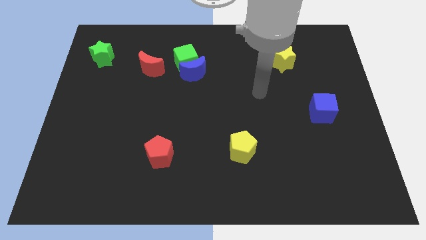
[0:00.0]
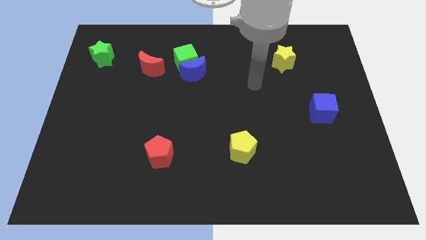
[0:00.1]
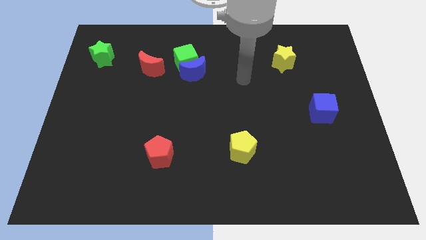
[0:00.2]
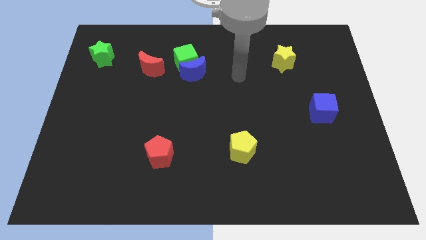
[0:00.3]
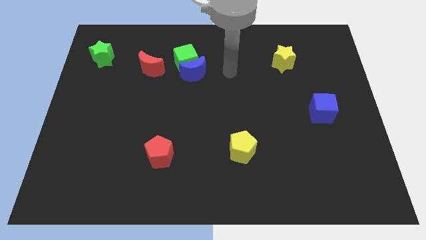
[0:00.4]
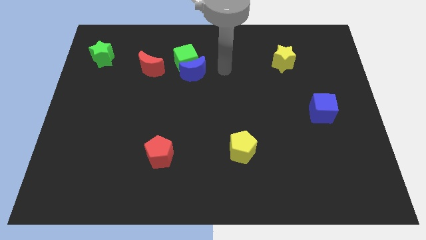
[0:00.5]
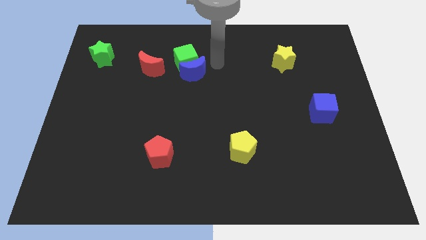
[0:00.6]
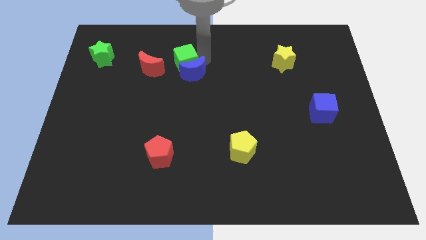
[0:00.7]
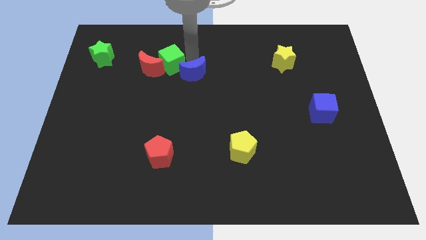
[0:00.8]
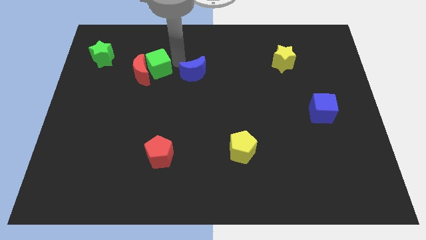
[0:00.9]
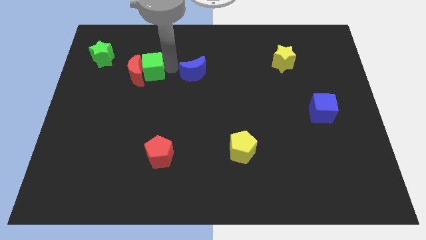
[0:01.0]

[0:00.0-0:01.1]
move the blue moon away from the green cube

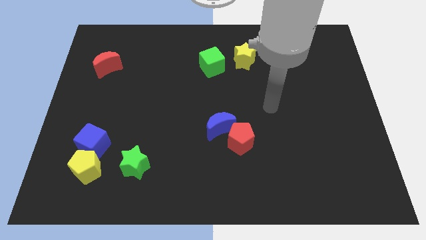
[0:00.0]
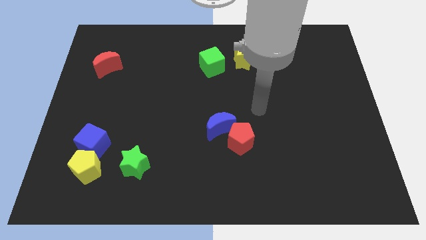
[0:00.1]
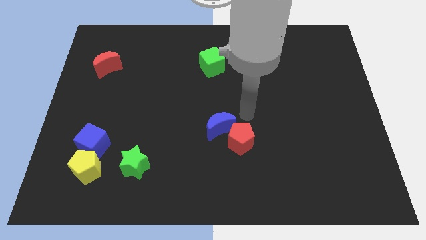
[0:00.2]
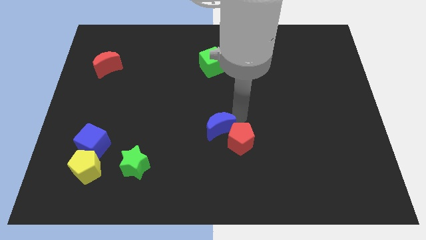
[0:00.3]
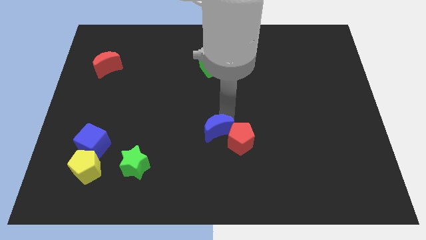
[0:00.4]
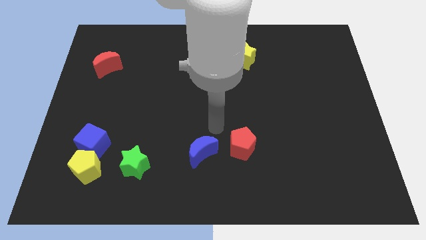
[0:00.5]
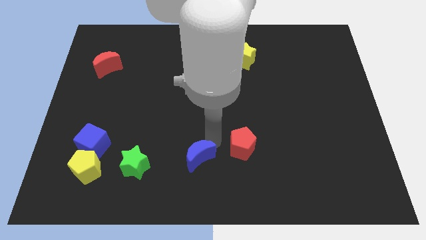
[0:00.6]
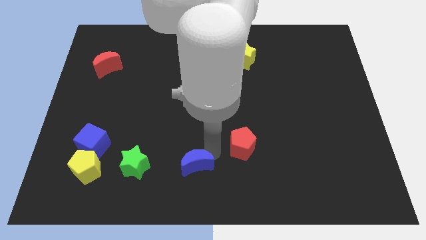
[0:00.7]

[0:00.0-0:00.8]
move the red pentagon away from the blue moon

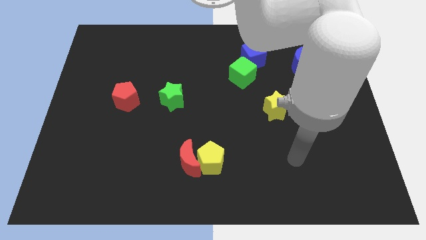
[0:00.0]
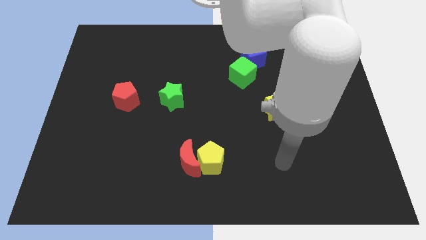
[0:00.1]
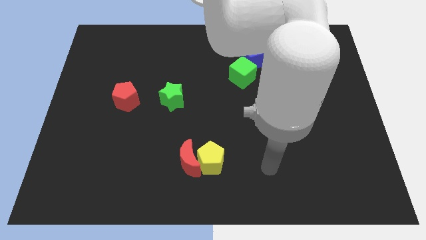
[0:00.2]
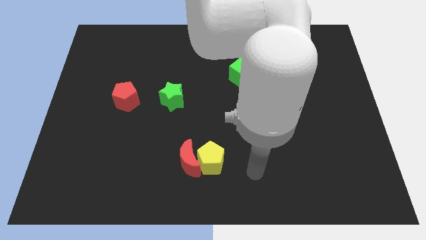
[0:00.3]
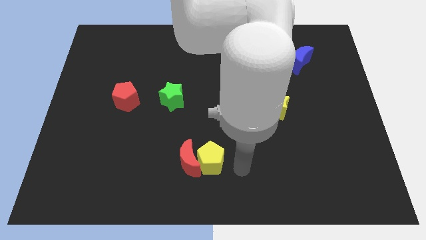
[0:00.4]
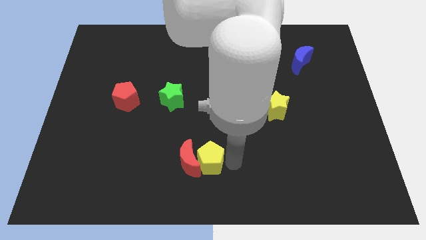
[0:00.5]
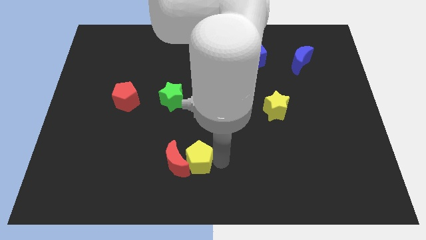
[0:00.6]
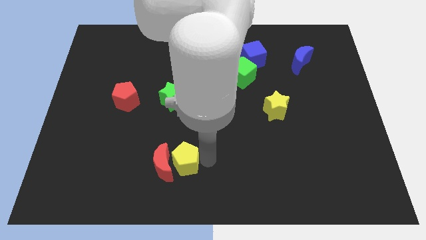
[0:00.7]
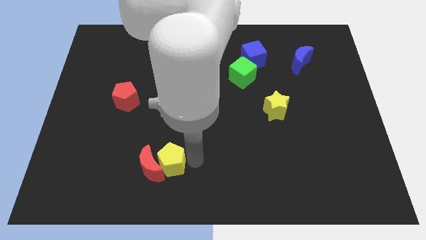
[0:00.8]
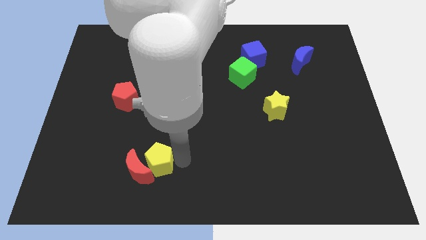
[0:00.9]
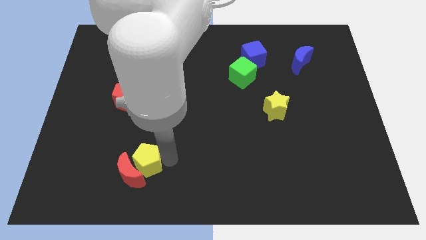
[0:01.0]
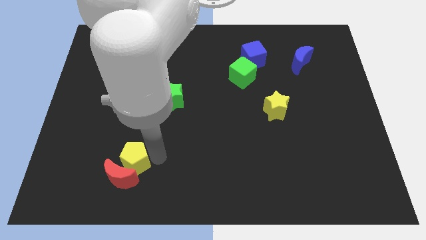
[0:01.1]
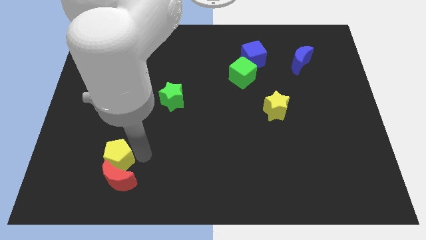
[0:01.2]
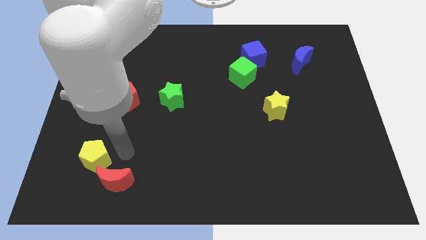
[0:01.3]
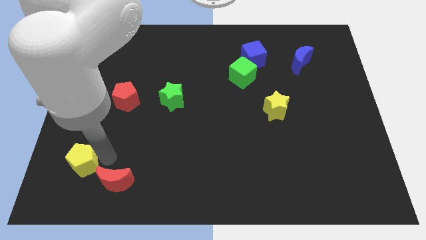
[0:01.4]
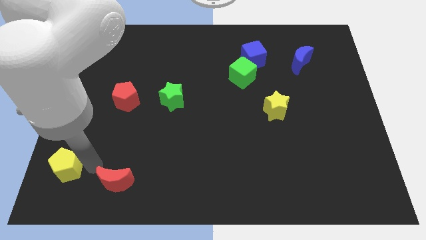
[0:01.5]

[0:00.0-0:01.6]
separate the red moon from the yellow pentagon

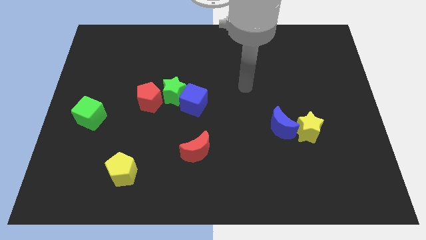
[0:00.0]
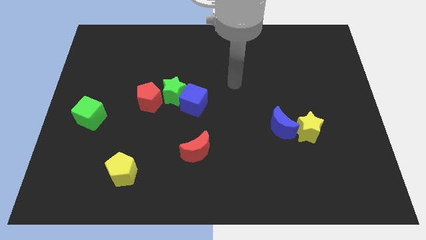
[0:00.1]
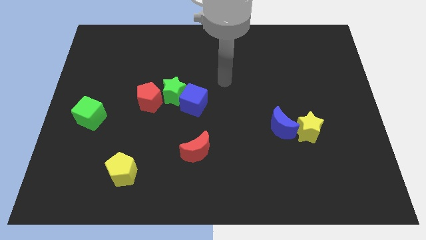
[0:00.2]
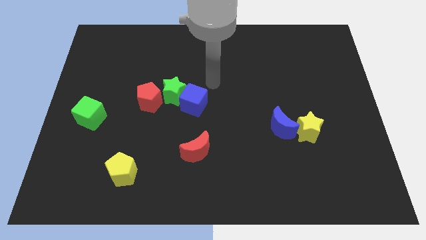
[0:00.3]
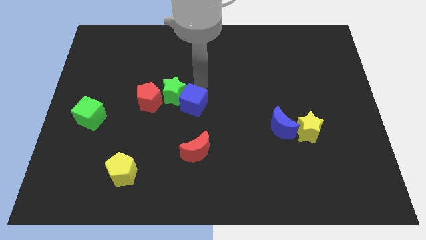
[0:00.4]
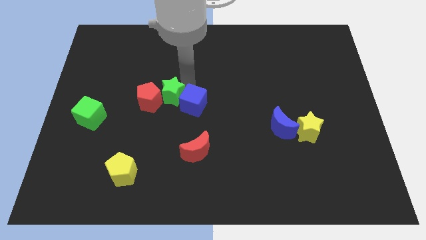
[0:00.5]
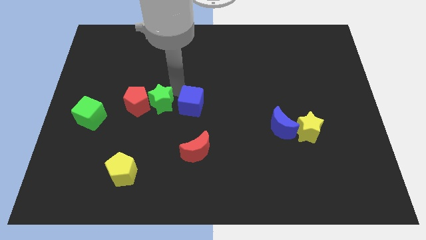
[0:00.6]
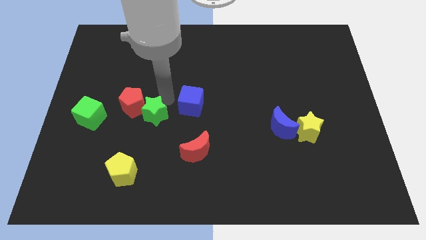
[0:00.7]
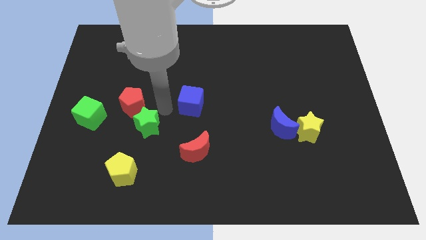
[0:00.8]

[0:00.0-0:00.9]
move the blue cube away from the green star

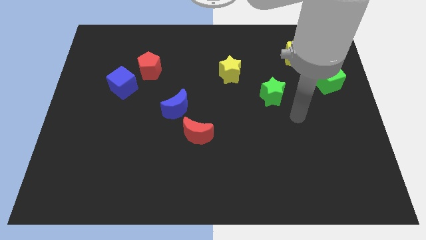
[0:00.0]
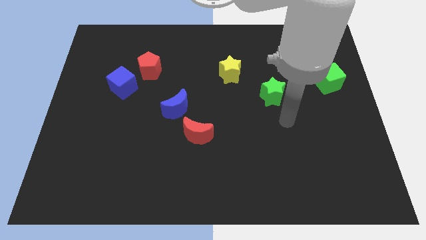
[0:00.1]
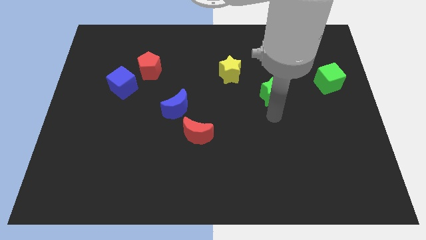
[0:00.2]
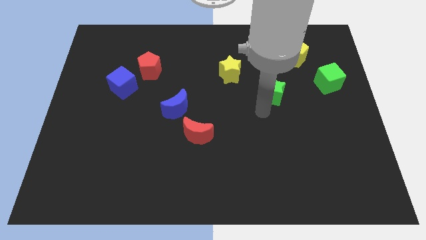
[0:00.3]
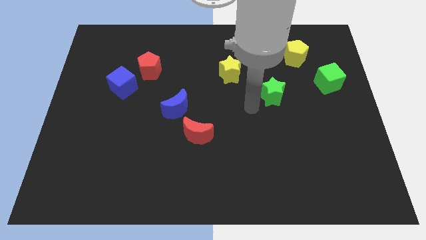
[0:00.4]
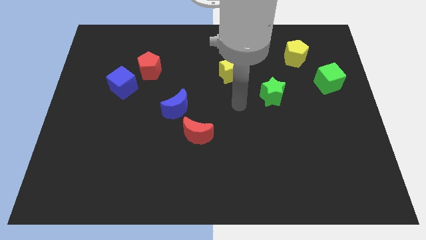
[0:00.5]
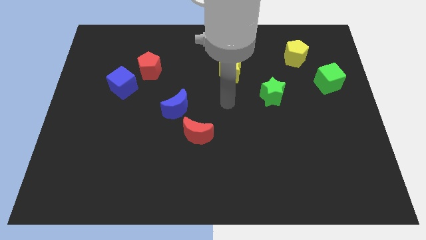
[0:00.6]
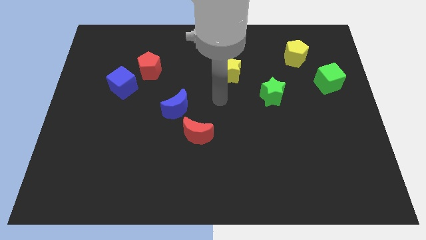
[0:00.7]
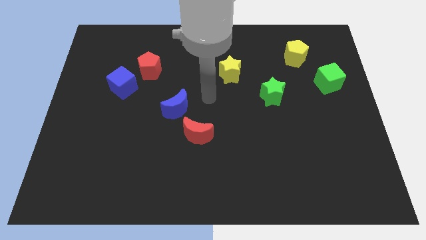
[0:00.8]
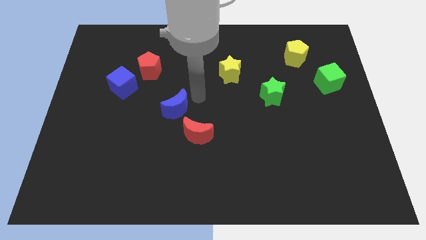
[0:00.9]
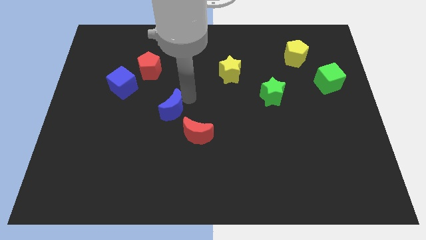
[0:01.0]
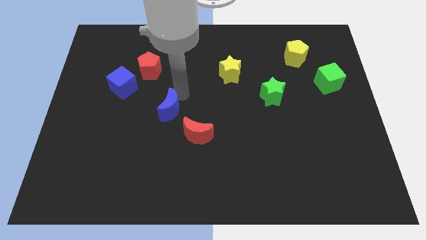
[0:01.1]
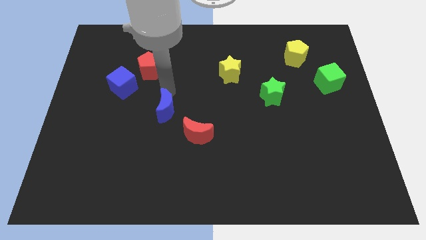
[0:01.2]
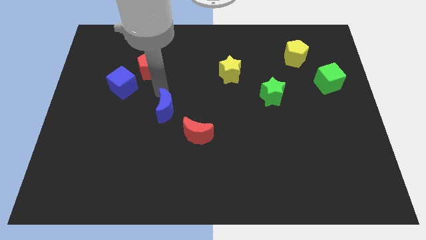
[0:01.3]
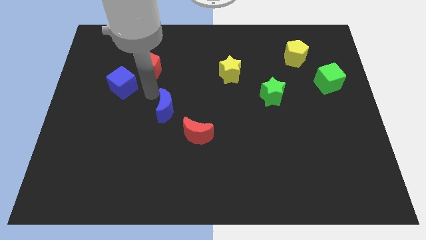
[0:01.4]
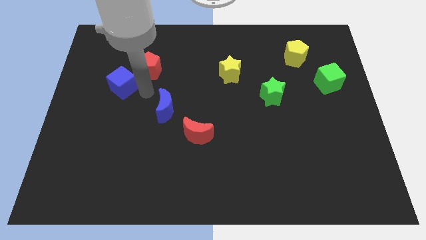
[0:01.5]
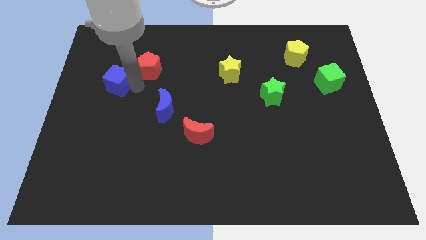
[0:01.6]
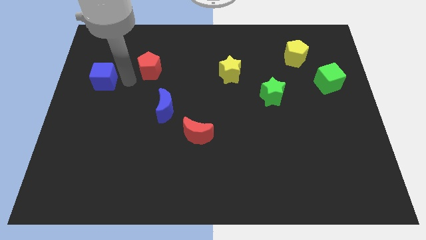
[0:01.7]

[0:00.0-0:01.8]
move the red pentagon away from the blue cube

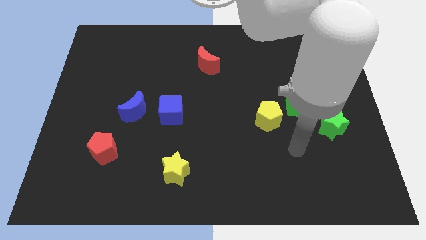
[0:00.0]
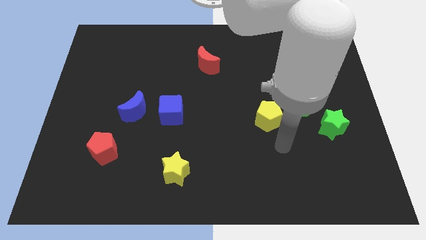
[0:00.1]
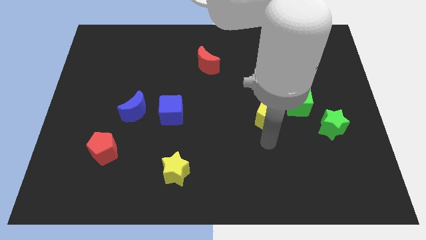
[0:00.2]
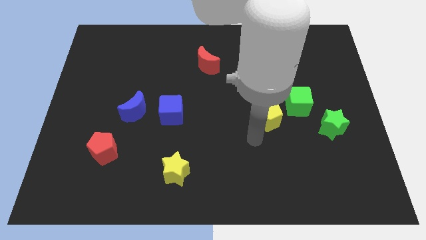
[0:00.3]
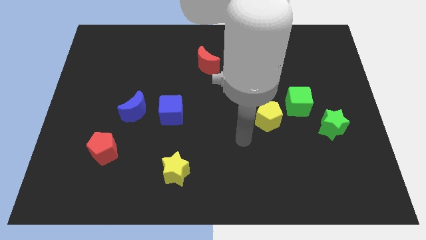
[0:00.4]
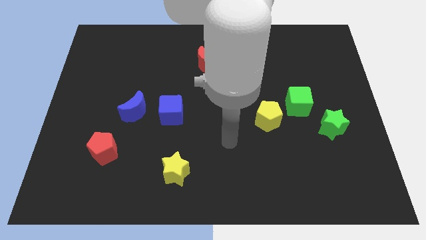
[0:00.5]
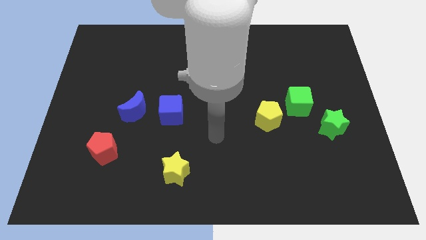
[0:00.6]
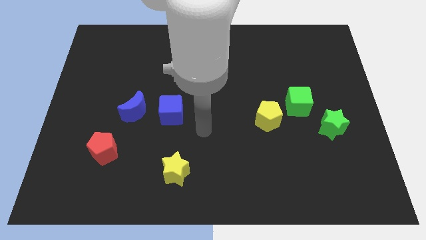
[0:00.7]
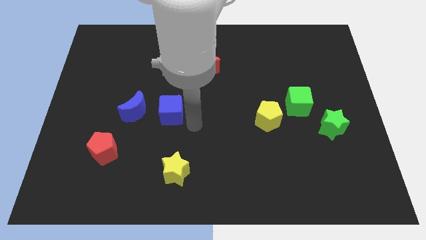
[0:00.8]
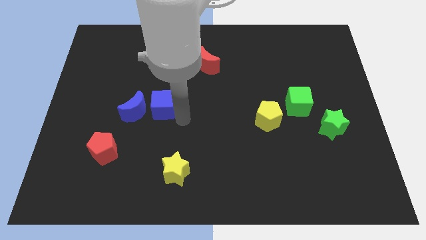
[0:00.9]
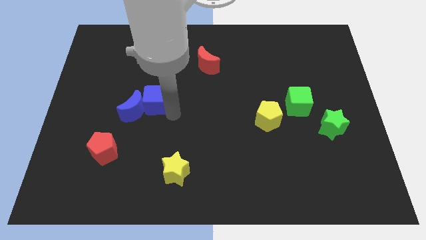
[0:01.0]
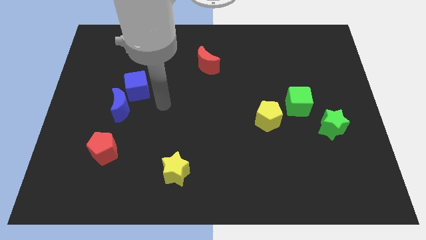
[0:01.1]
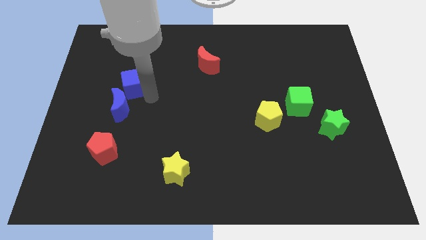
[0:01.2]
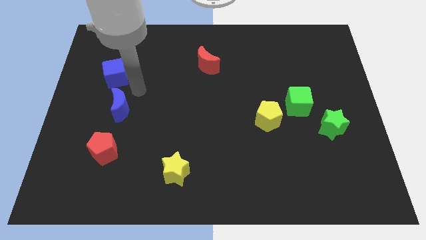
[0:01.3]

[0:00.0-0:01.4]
move the blue moon away from the blue cube

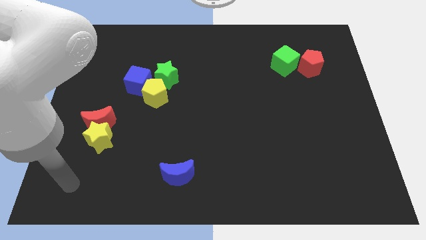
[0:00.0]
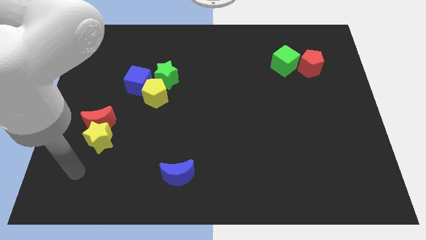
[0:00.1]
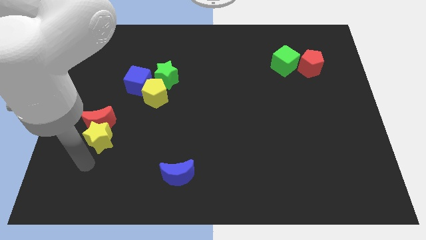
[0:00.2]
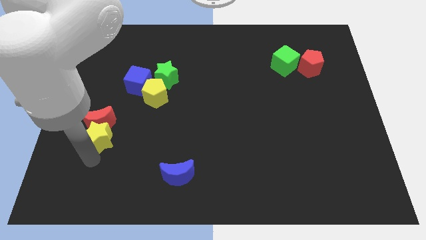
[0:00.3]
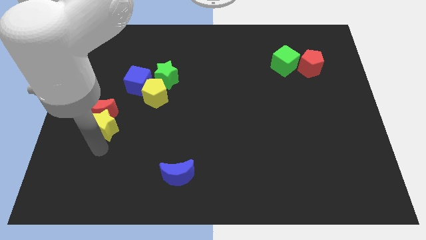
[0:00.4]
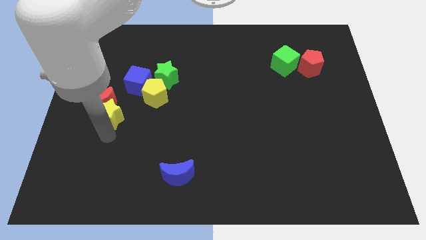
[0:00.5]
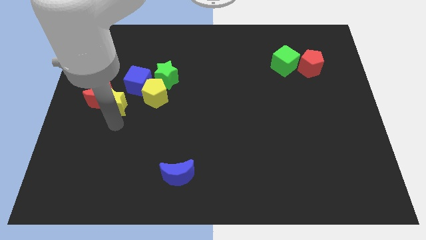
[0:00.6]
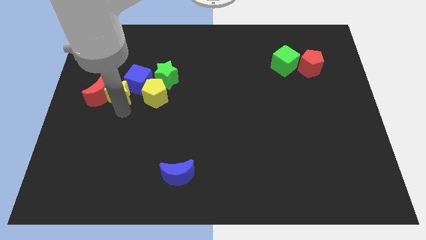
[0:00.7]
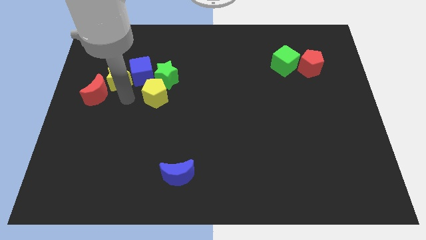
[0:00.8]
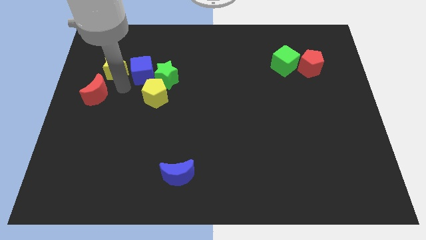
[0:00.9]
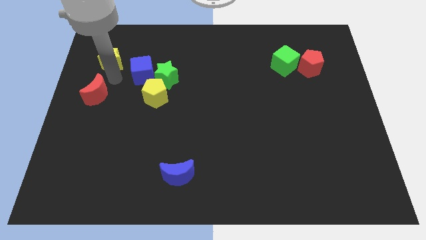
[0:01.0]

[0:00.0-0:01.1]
separate the red moon from the yellow star

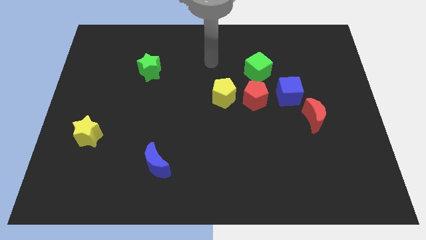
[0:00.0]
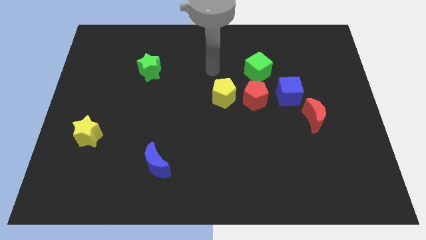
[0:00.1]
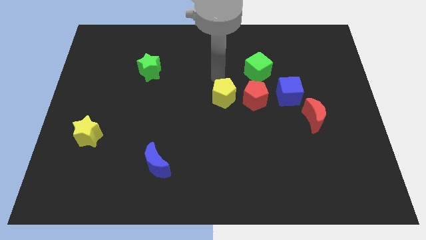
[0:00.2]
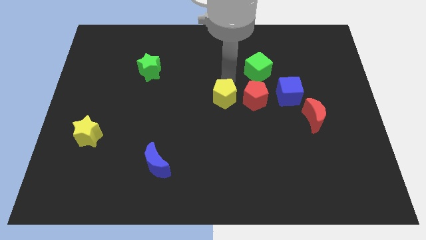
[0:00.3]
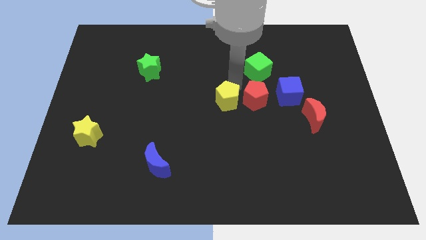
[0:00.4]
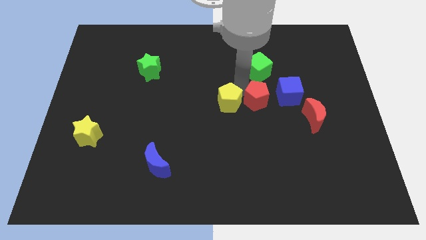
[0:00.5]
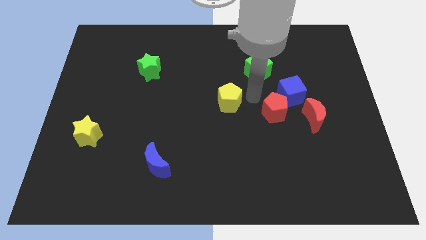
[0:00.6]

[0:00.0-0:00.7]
move the yellow pentagon away from the red pentagon
